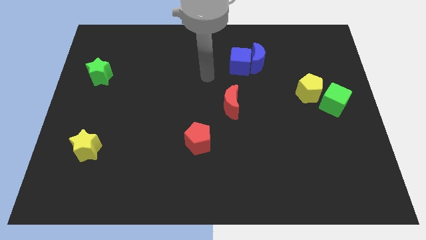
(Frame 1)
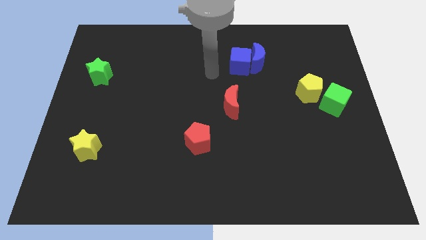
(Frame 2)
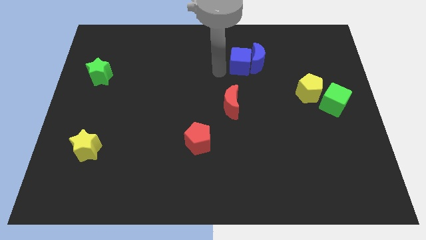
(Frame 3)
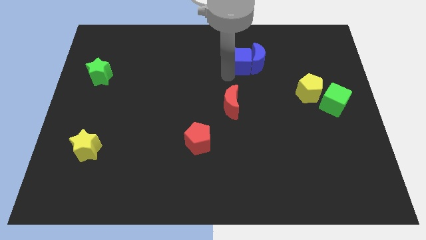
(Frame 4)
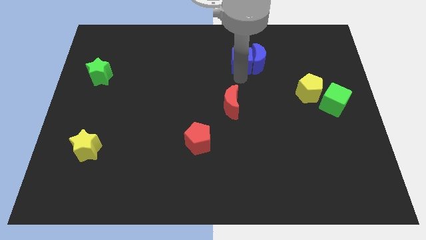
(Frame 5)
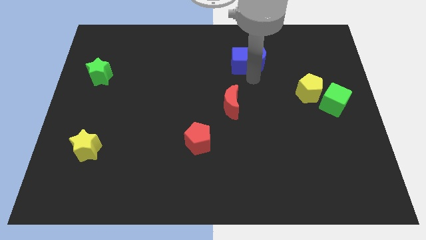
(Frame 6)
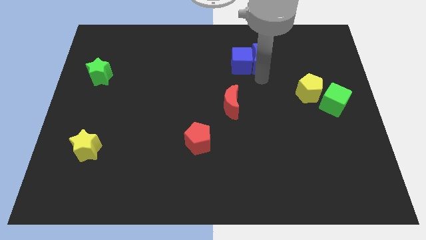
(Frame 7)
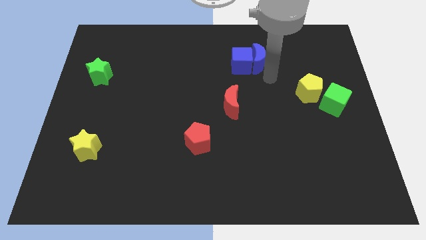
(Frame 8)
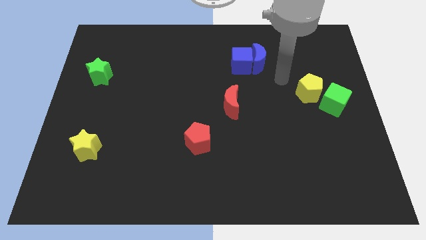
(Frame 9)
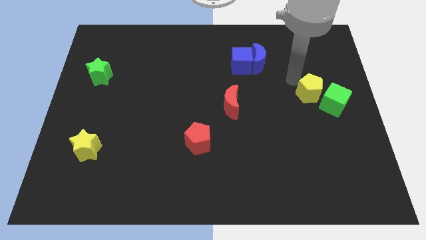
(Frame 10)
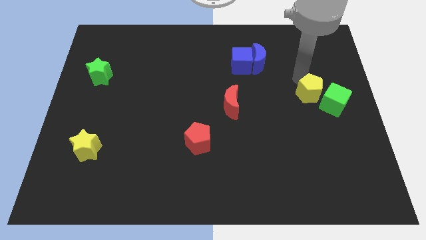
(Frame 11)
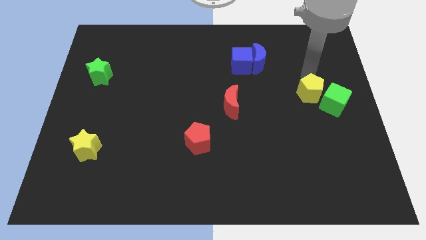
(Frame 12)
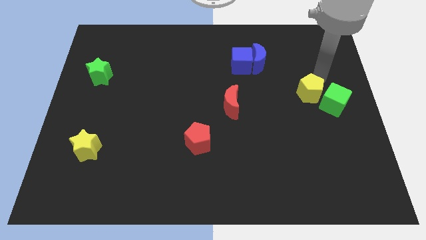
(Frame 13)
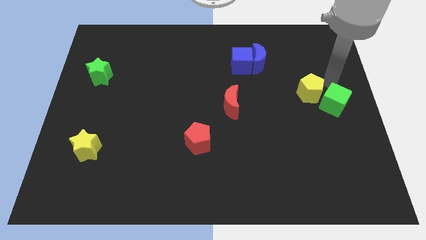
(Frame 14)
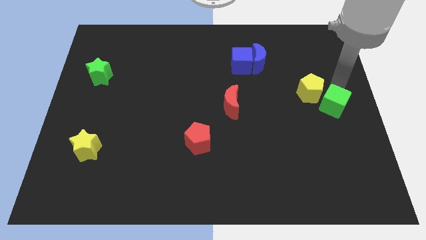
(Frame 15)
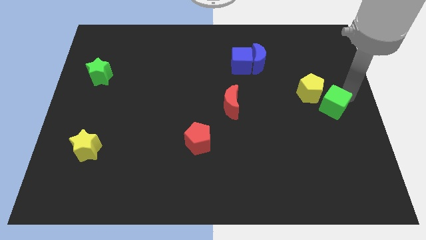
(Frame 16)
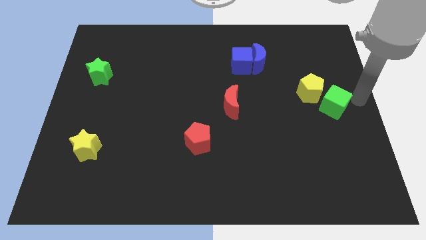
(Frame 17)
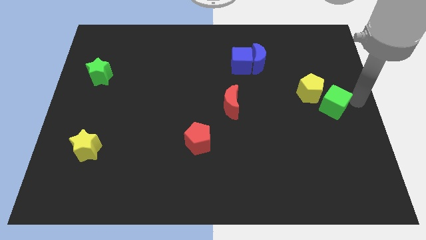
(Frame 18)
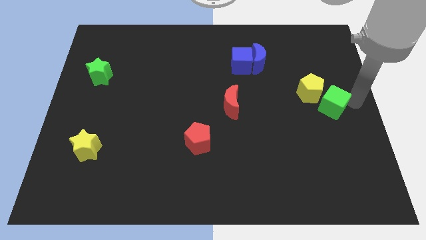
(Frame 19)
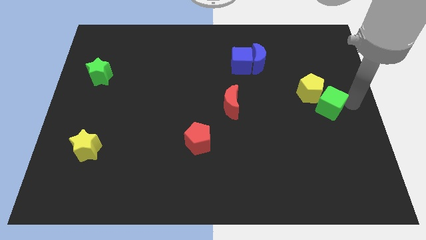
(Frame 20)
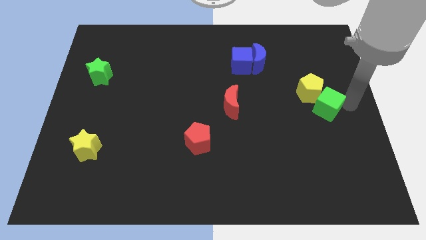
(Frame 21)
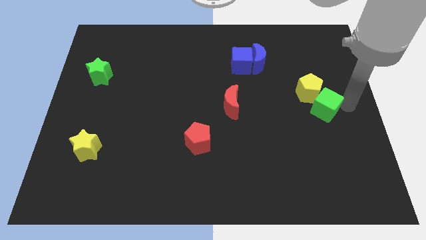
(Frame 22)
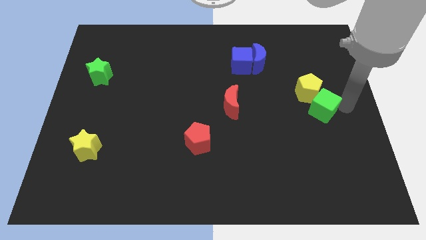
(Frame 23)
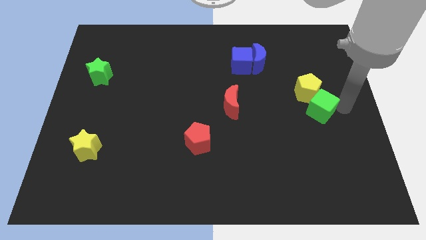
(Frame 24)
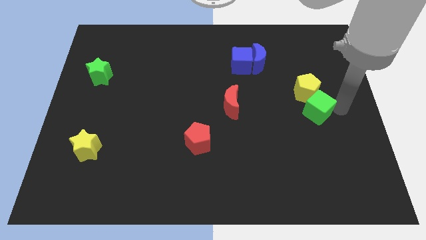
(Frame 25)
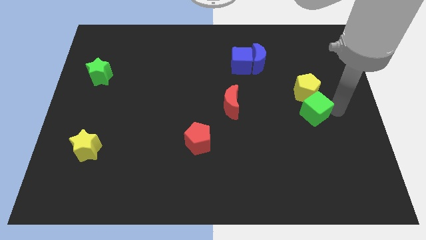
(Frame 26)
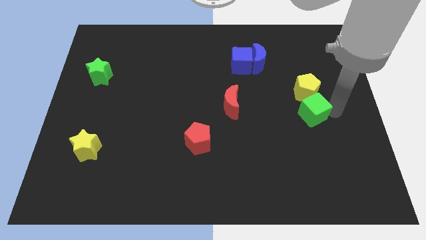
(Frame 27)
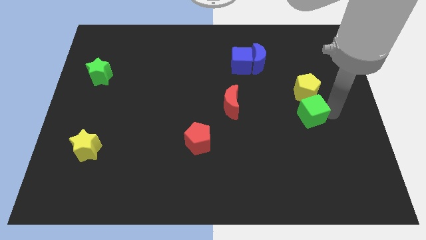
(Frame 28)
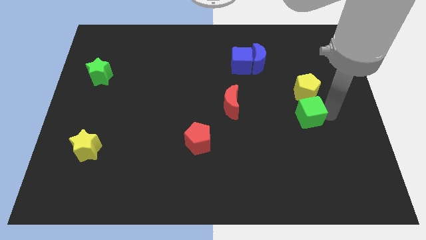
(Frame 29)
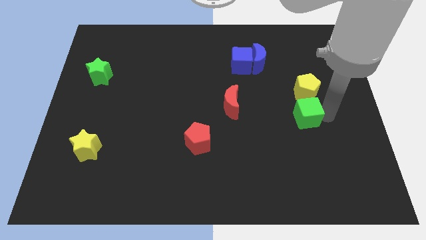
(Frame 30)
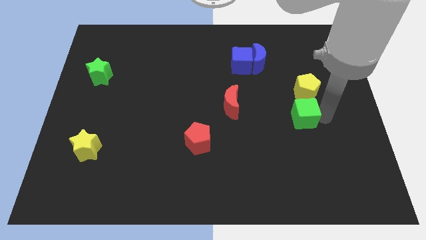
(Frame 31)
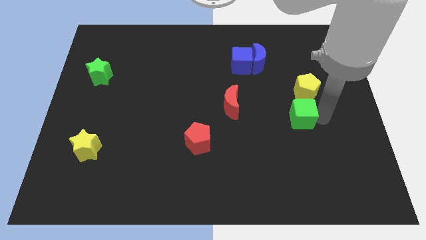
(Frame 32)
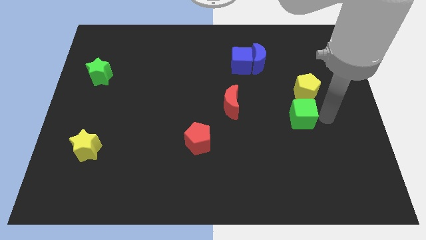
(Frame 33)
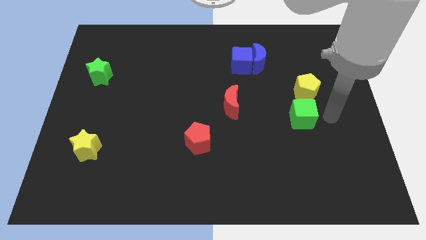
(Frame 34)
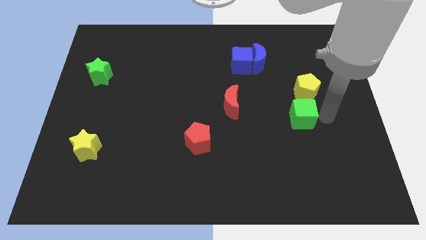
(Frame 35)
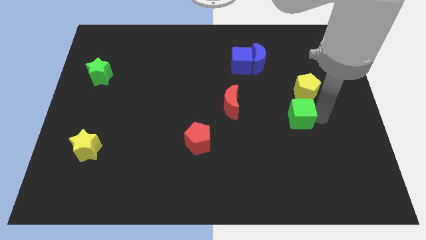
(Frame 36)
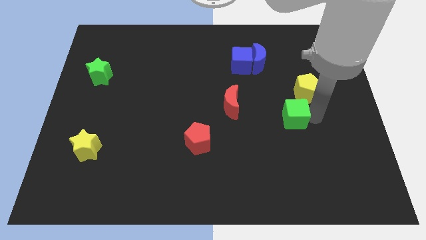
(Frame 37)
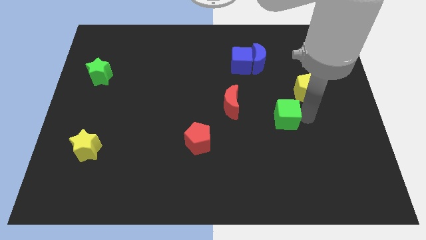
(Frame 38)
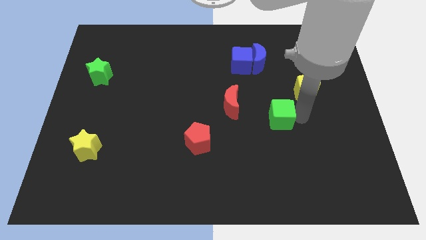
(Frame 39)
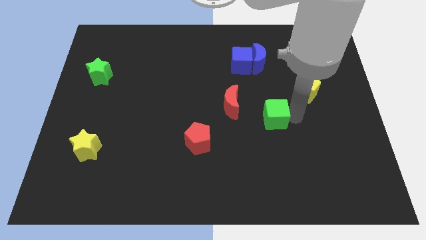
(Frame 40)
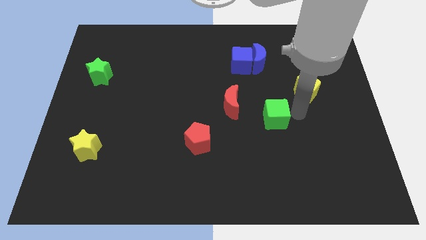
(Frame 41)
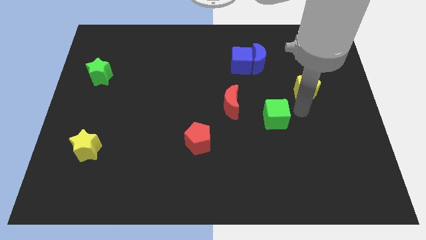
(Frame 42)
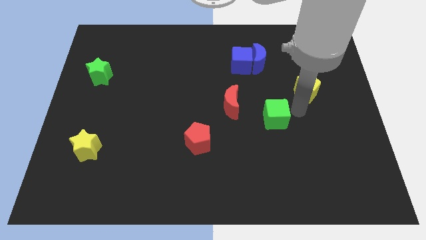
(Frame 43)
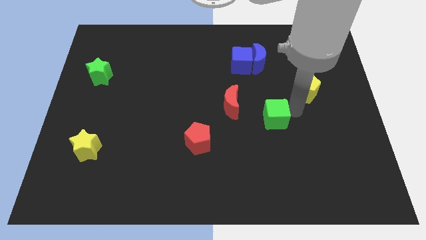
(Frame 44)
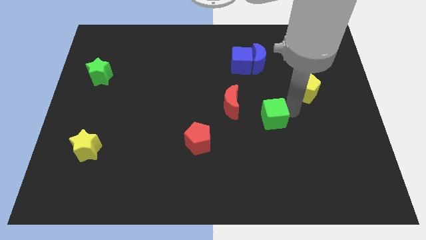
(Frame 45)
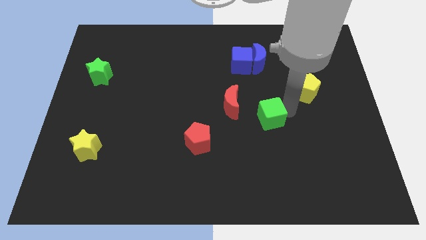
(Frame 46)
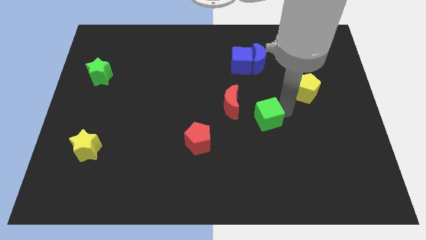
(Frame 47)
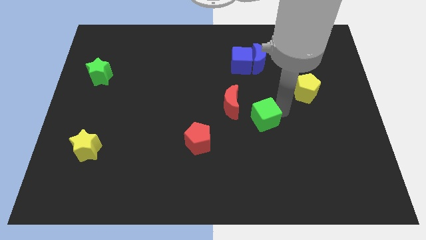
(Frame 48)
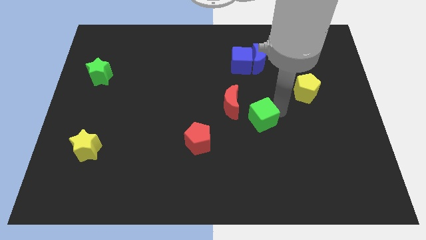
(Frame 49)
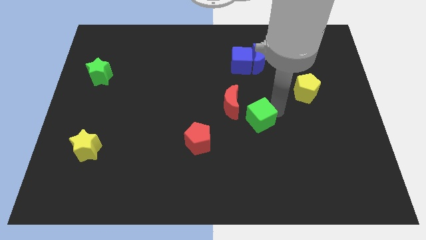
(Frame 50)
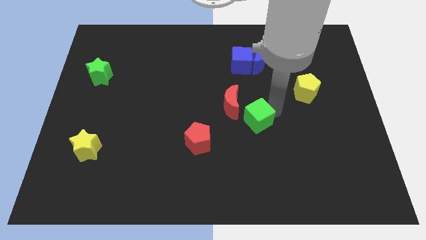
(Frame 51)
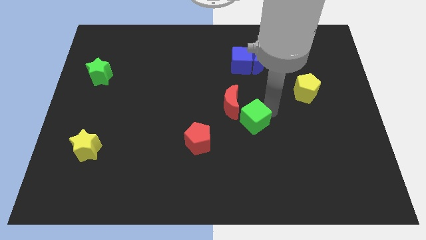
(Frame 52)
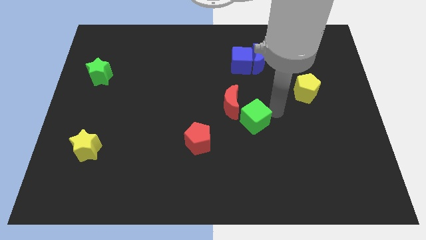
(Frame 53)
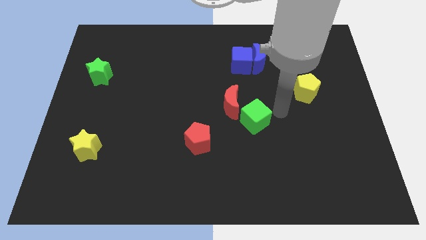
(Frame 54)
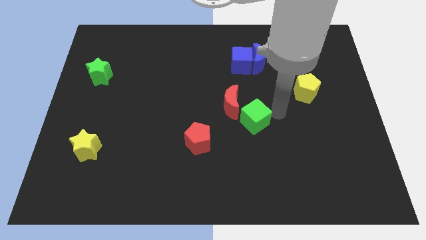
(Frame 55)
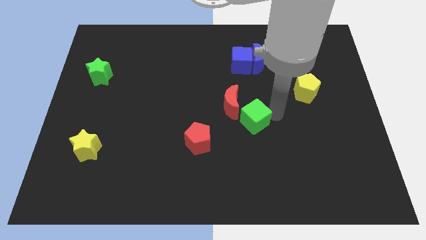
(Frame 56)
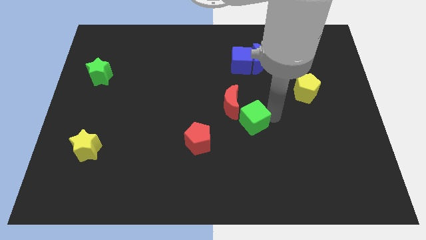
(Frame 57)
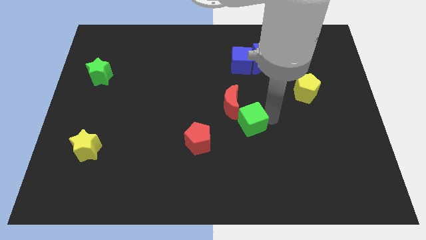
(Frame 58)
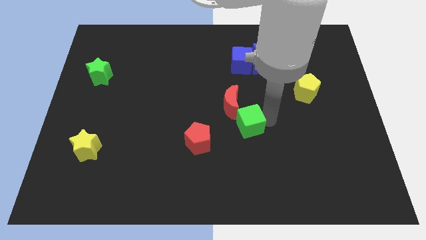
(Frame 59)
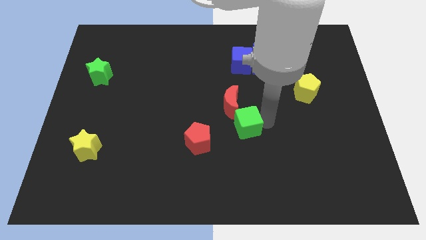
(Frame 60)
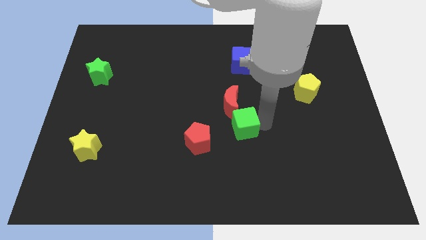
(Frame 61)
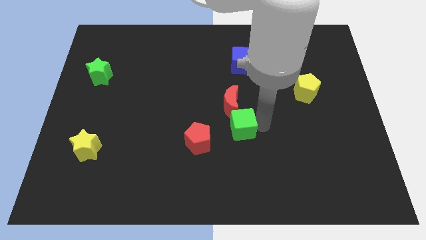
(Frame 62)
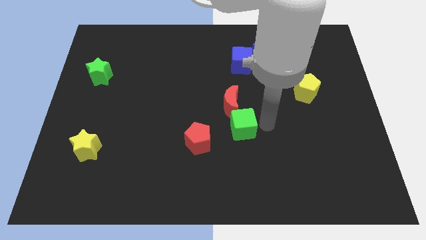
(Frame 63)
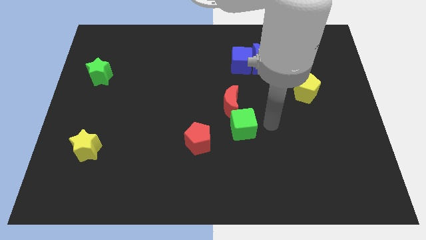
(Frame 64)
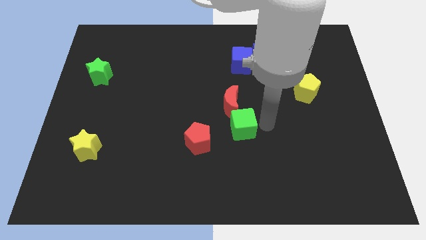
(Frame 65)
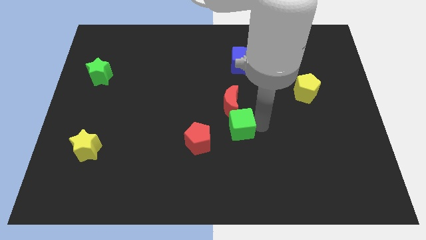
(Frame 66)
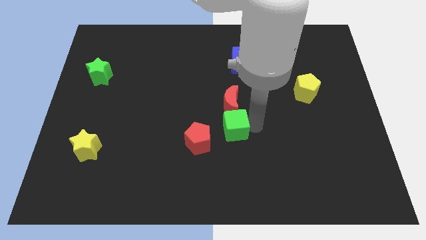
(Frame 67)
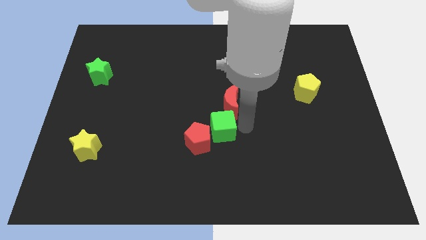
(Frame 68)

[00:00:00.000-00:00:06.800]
move the green cube next to the red pentagon

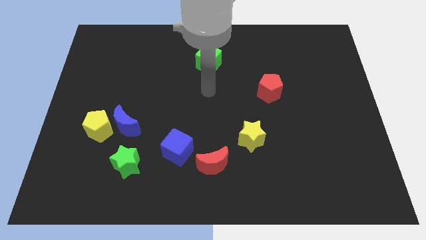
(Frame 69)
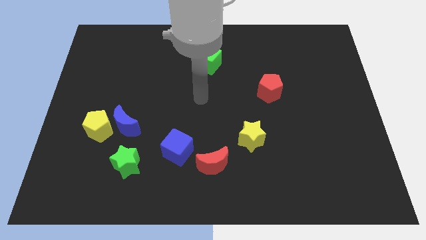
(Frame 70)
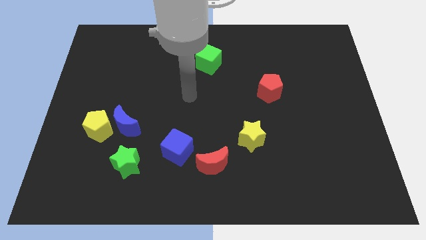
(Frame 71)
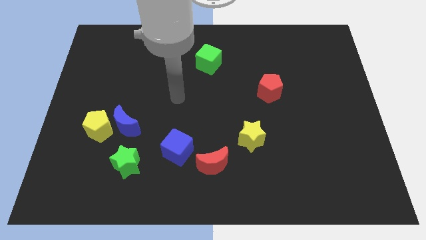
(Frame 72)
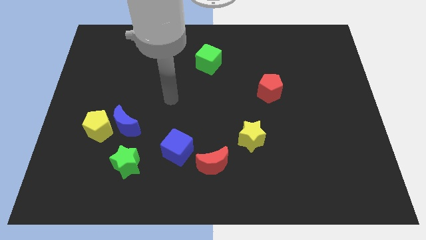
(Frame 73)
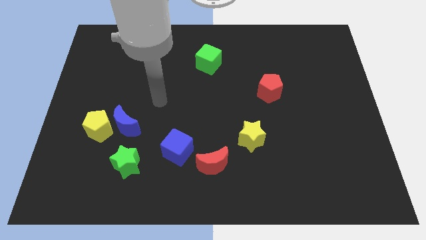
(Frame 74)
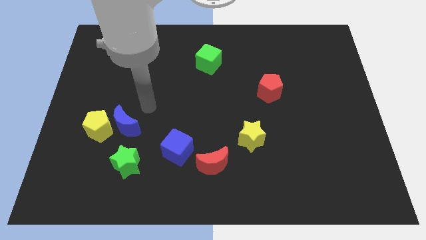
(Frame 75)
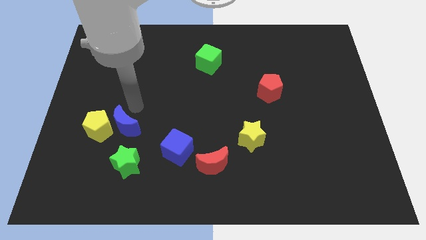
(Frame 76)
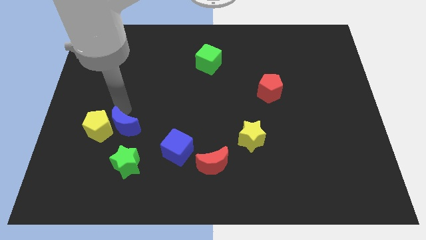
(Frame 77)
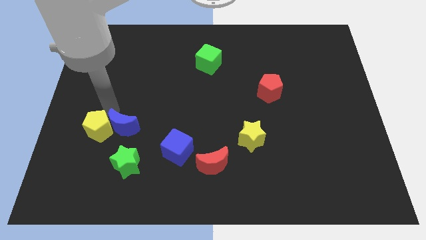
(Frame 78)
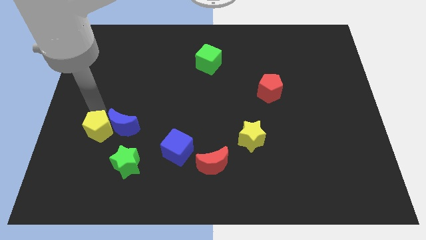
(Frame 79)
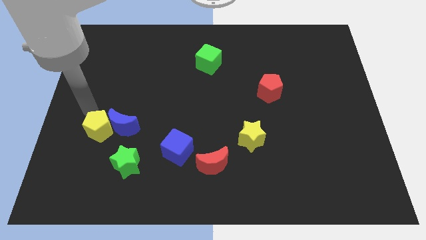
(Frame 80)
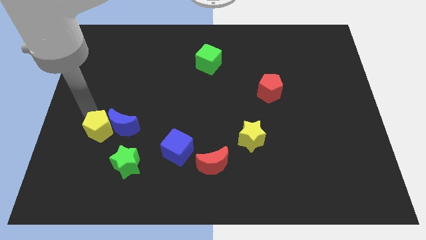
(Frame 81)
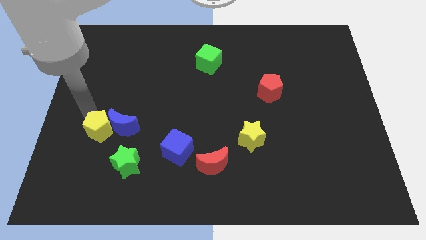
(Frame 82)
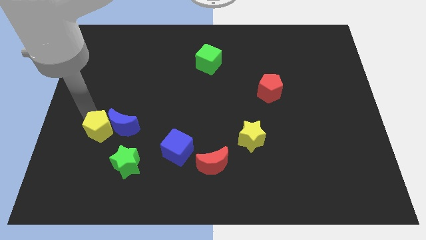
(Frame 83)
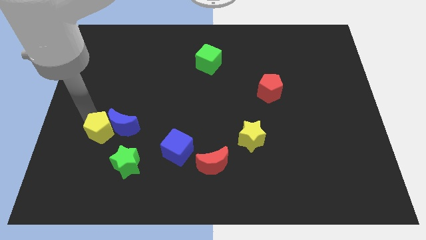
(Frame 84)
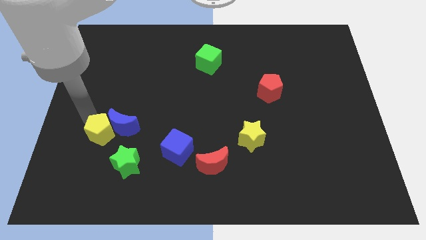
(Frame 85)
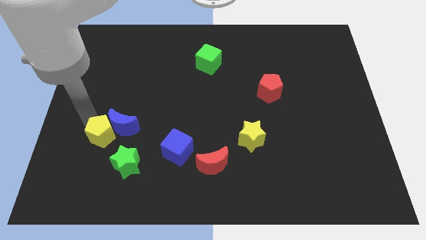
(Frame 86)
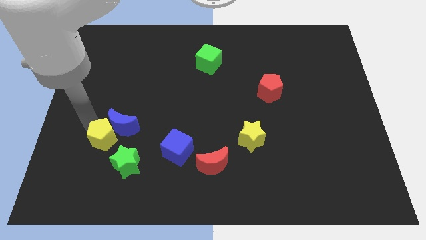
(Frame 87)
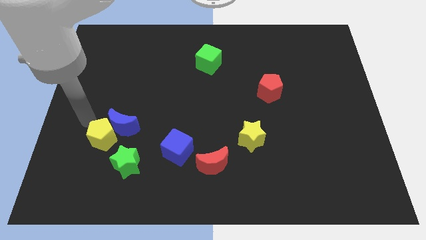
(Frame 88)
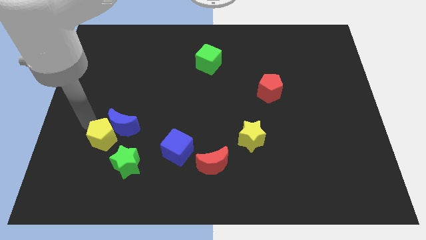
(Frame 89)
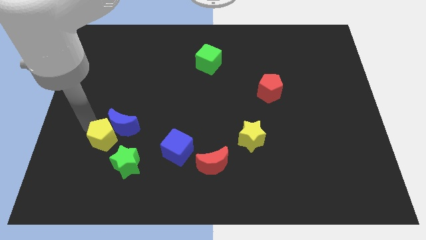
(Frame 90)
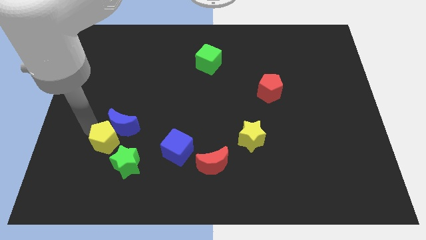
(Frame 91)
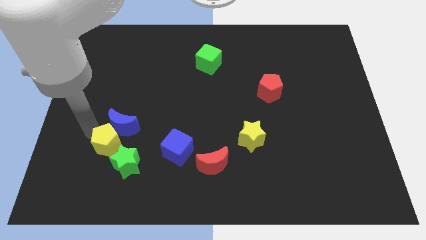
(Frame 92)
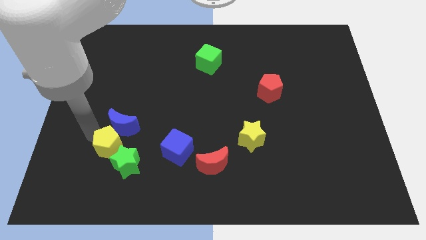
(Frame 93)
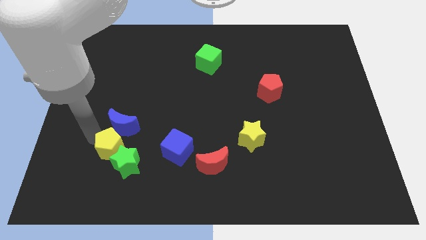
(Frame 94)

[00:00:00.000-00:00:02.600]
push the yellow pentagon next to the green star
